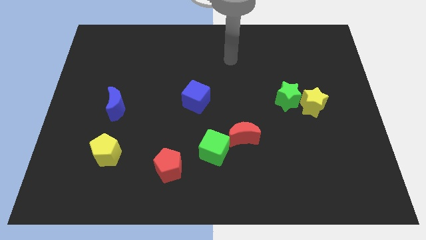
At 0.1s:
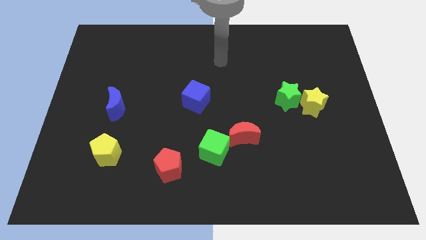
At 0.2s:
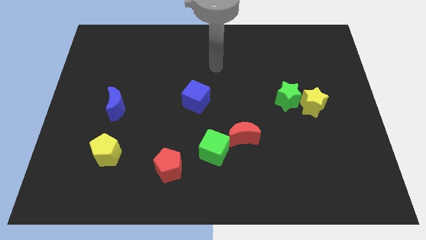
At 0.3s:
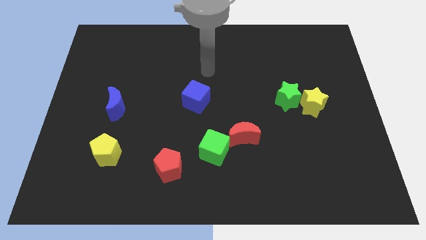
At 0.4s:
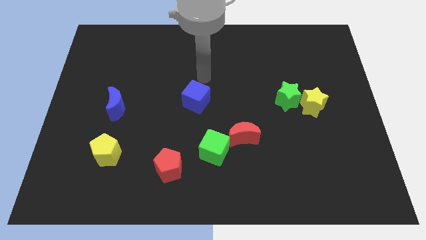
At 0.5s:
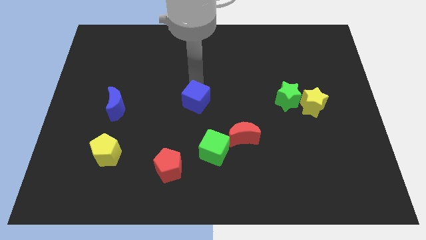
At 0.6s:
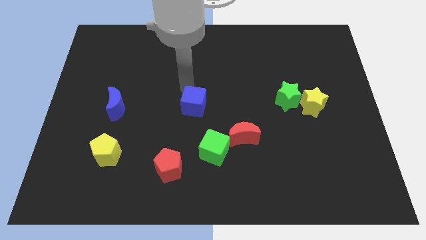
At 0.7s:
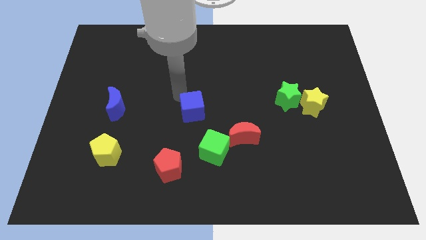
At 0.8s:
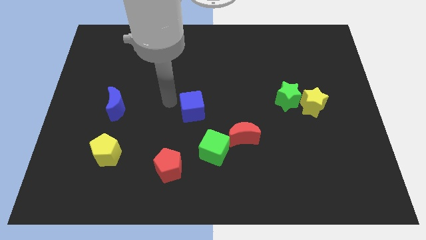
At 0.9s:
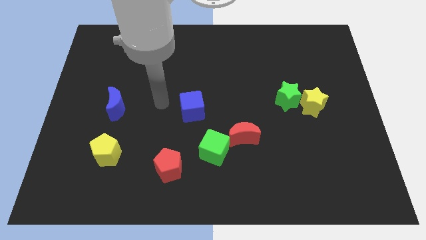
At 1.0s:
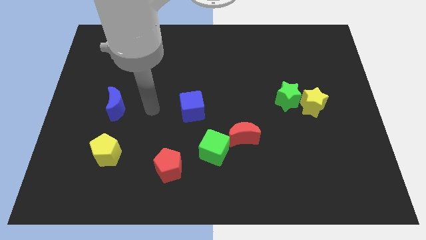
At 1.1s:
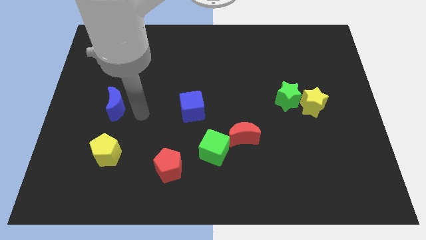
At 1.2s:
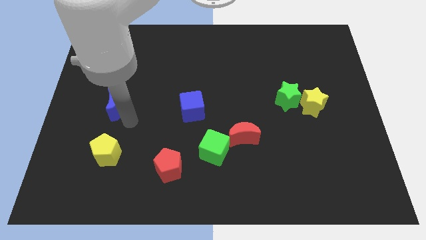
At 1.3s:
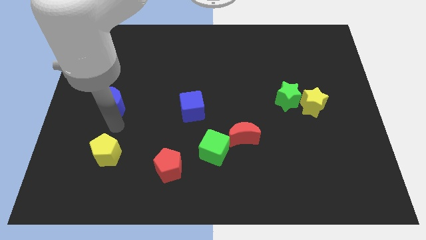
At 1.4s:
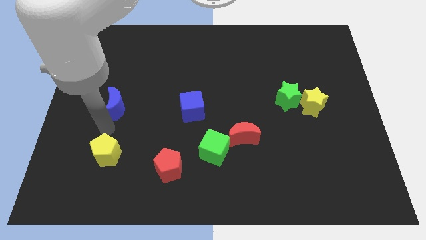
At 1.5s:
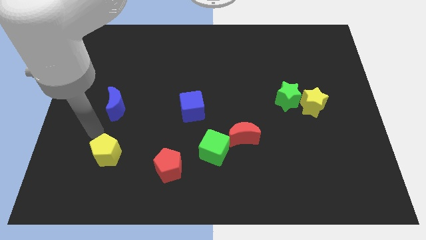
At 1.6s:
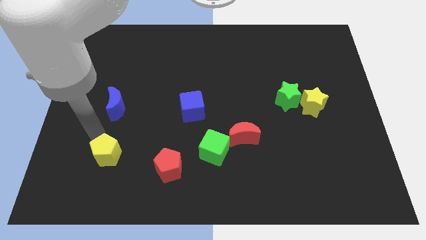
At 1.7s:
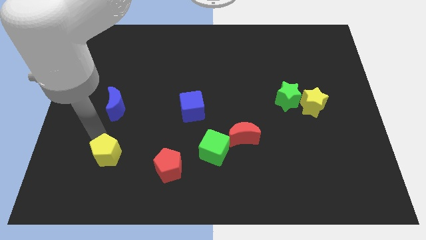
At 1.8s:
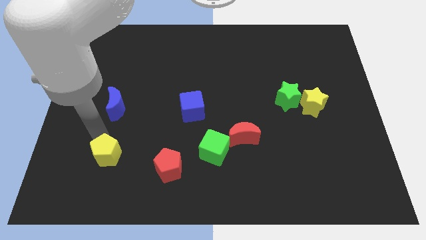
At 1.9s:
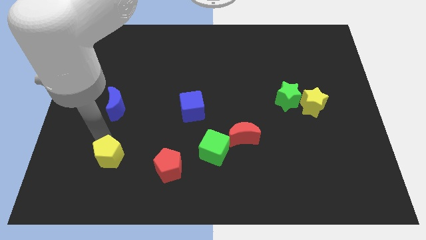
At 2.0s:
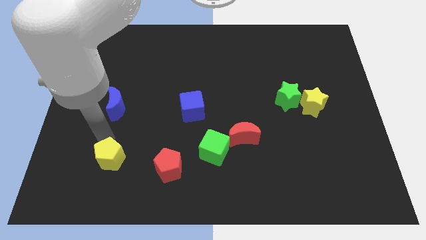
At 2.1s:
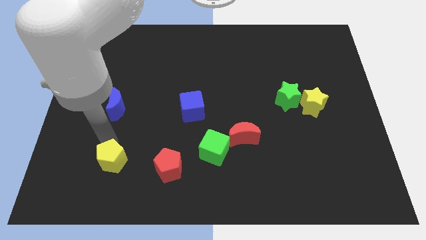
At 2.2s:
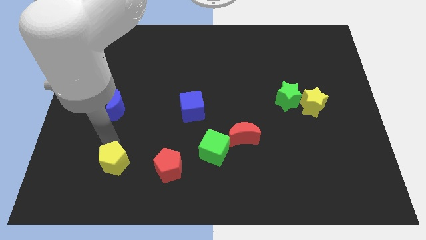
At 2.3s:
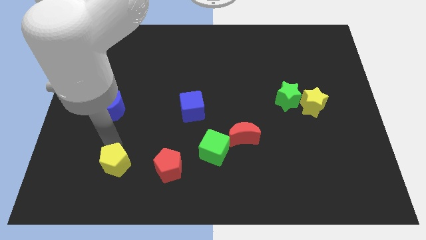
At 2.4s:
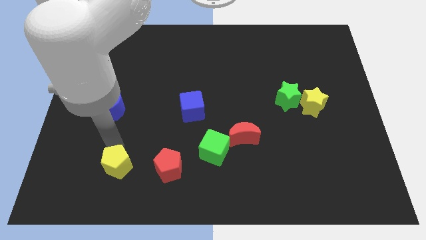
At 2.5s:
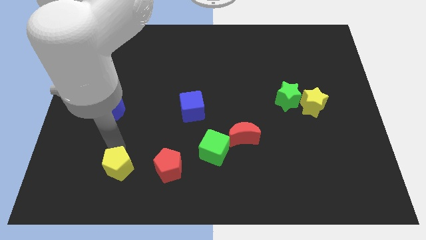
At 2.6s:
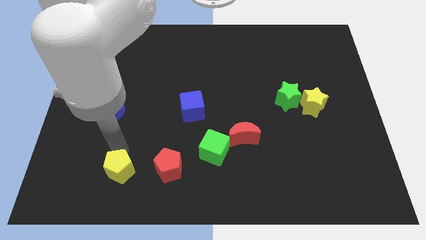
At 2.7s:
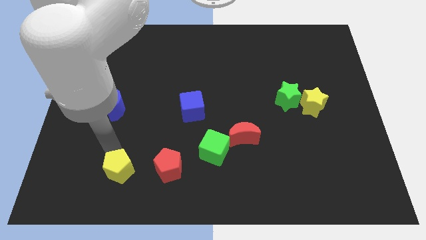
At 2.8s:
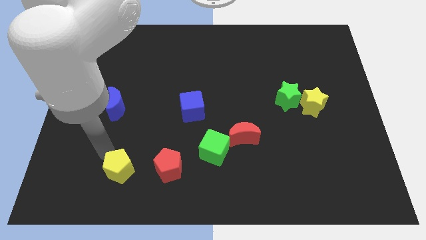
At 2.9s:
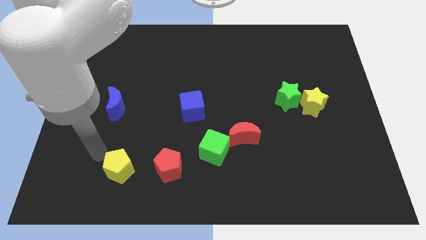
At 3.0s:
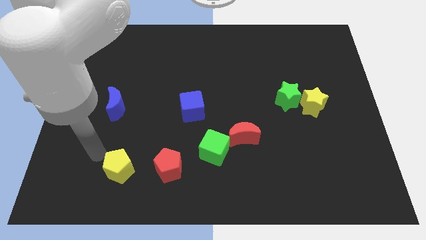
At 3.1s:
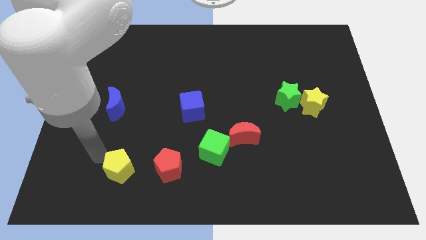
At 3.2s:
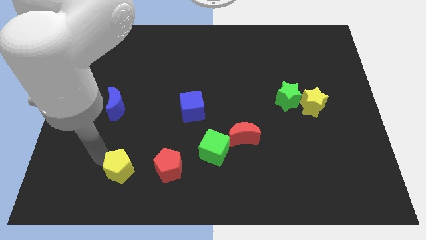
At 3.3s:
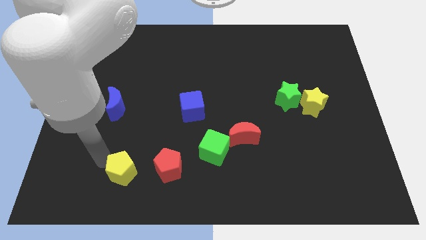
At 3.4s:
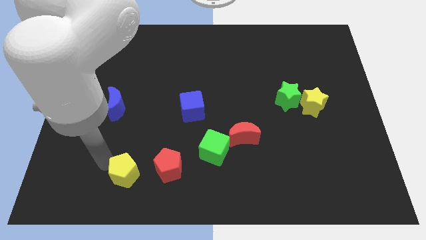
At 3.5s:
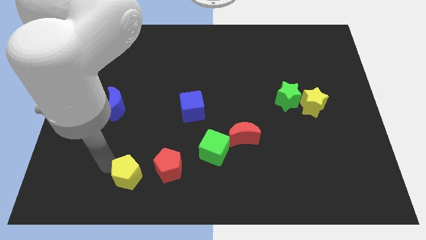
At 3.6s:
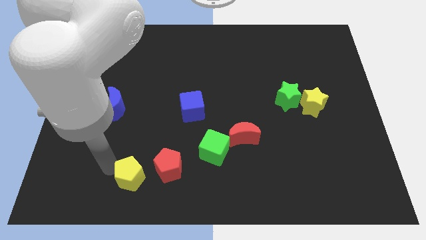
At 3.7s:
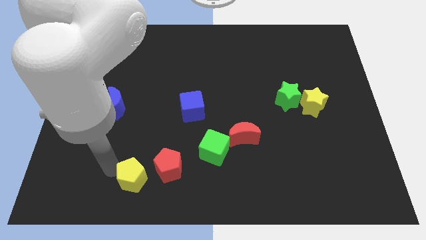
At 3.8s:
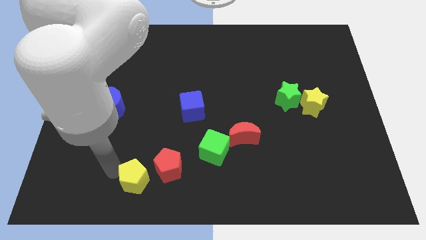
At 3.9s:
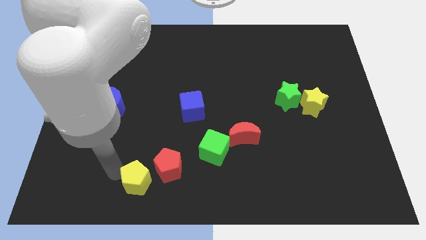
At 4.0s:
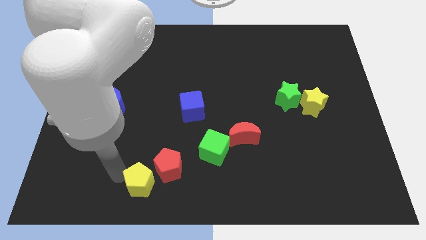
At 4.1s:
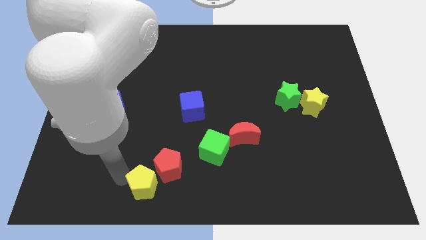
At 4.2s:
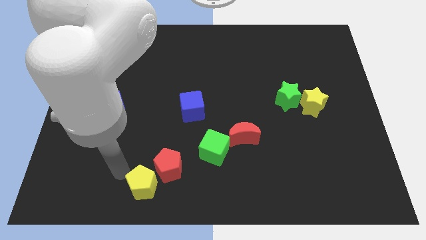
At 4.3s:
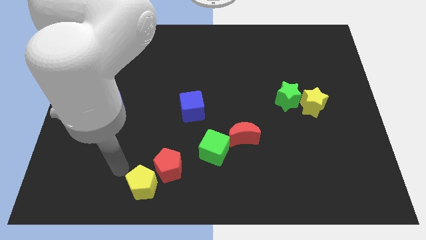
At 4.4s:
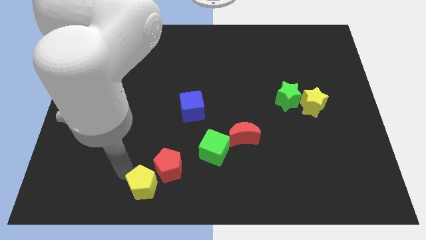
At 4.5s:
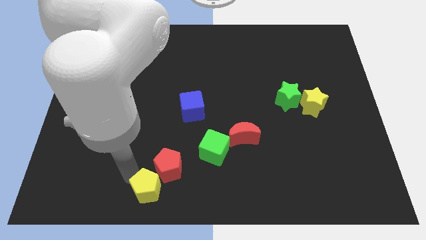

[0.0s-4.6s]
slide the yellow pentagon to the bottom

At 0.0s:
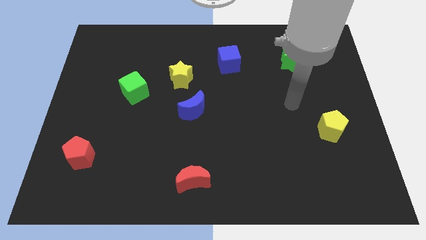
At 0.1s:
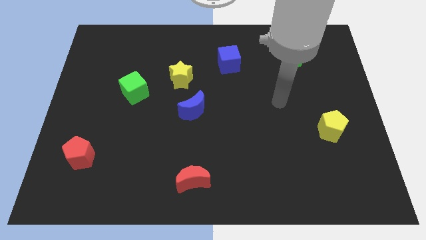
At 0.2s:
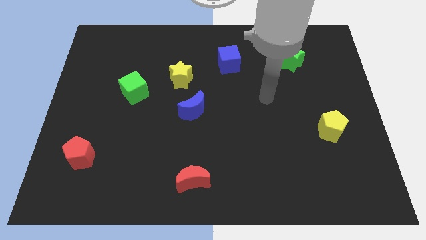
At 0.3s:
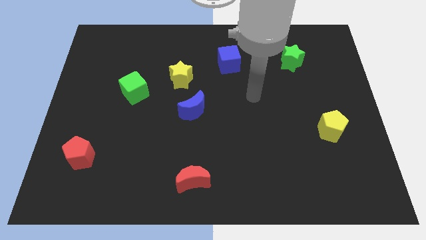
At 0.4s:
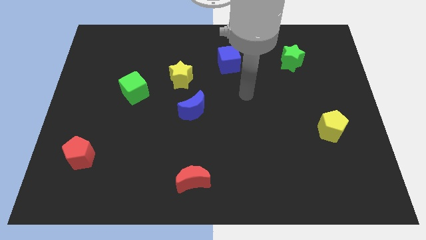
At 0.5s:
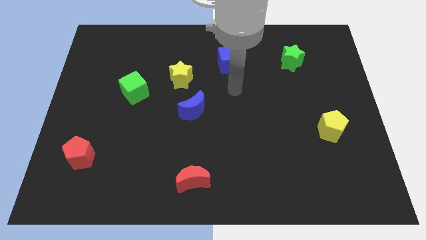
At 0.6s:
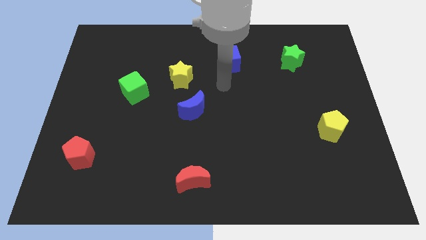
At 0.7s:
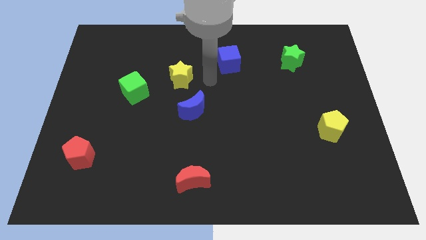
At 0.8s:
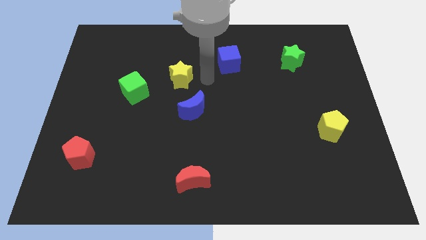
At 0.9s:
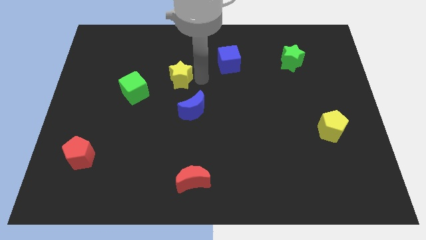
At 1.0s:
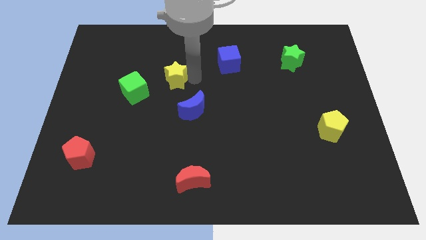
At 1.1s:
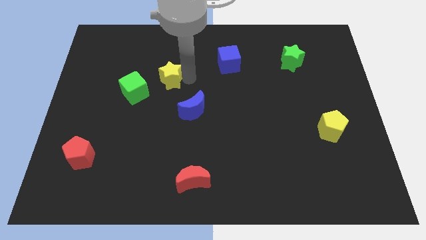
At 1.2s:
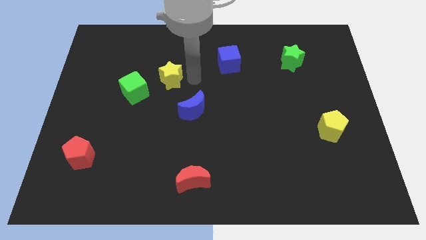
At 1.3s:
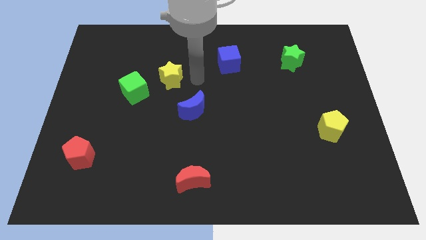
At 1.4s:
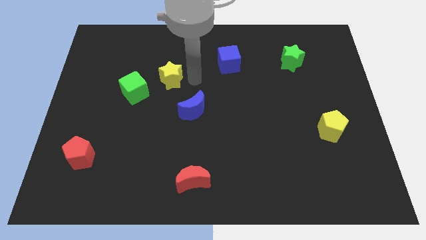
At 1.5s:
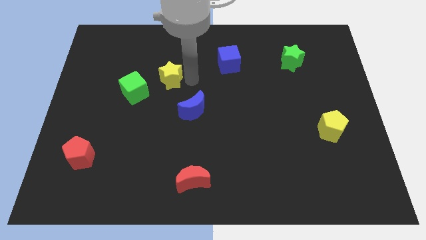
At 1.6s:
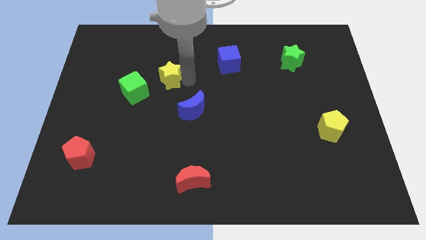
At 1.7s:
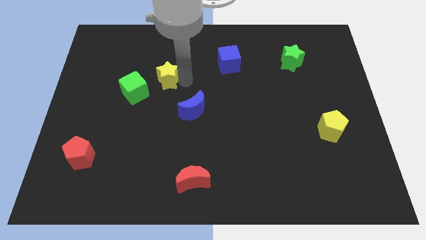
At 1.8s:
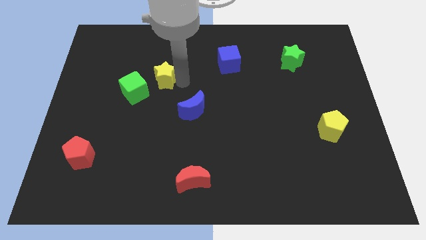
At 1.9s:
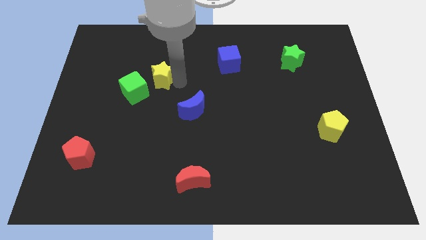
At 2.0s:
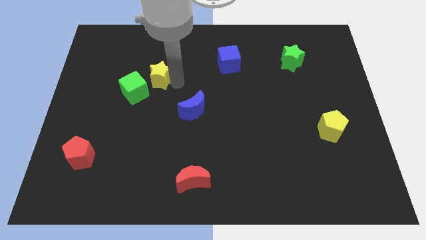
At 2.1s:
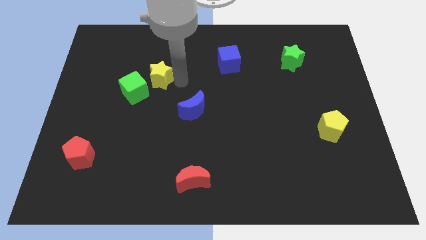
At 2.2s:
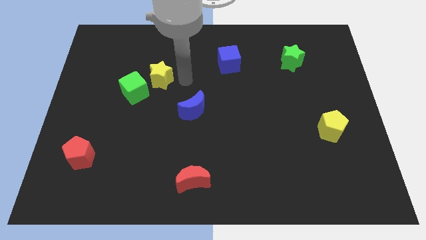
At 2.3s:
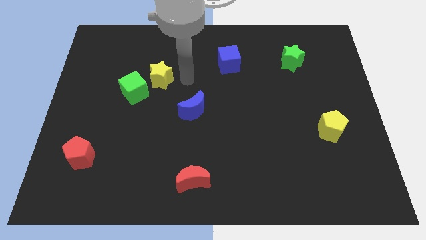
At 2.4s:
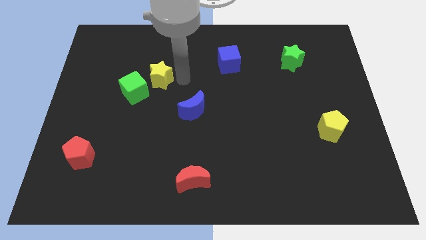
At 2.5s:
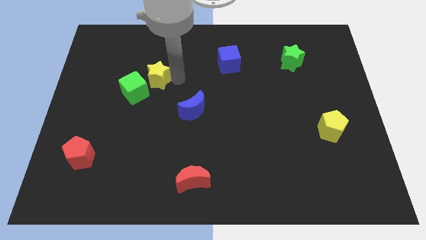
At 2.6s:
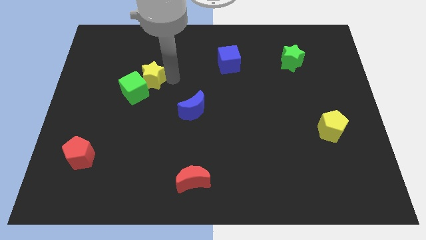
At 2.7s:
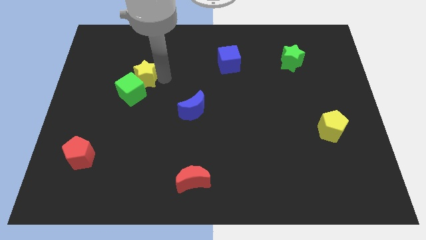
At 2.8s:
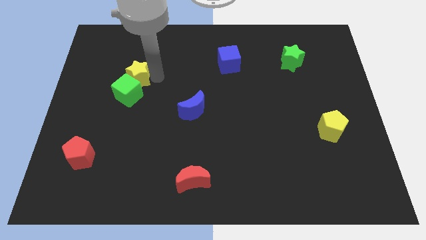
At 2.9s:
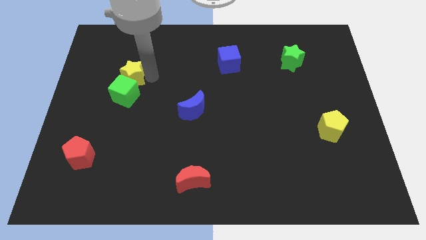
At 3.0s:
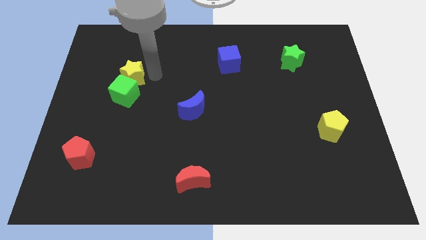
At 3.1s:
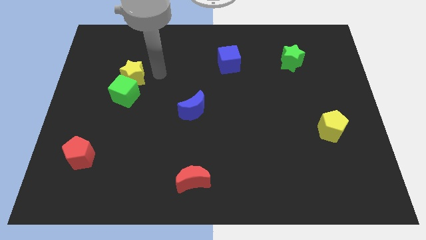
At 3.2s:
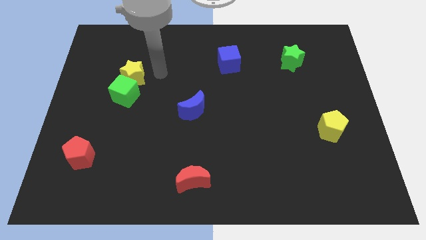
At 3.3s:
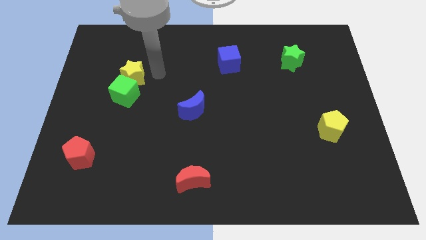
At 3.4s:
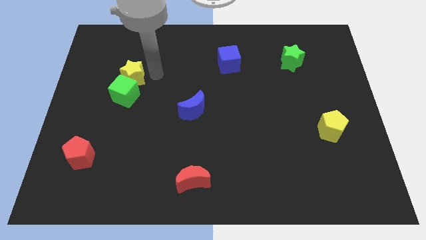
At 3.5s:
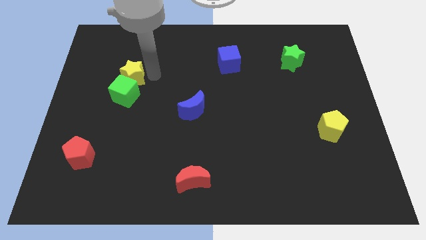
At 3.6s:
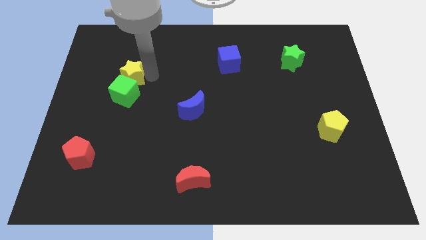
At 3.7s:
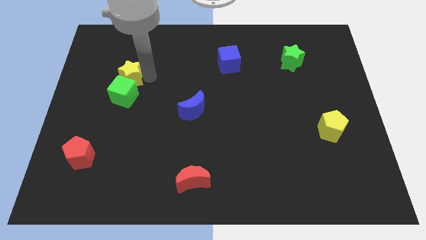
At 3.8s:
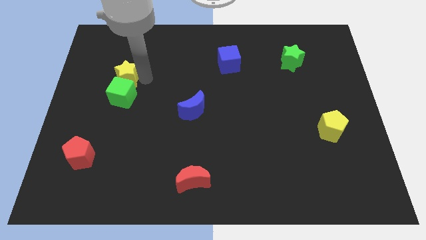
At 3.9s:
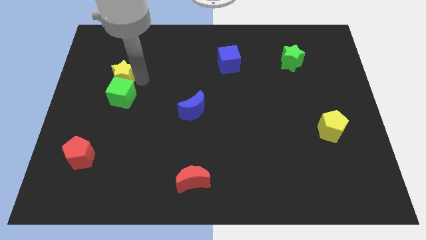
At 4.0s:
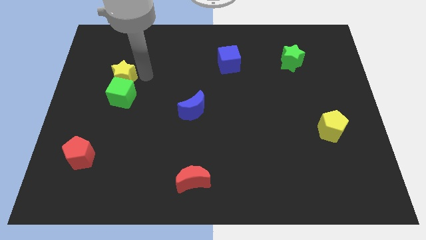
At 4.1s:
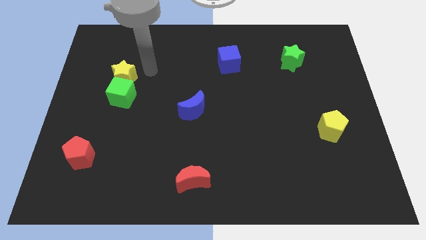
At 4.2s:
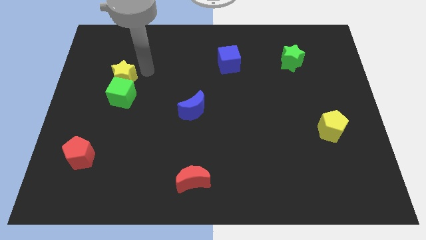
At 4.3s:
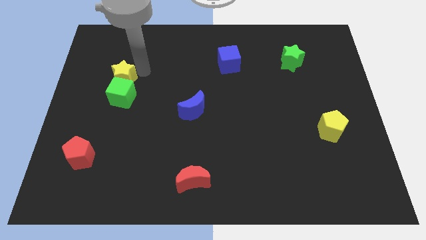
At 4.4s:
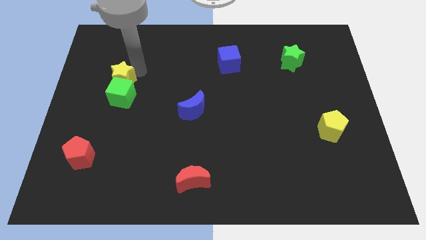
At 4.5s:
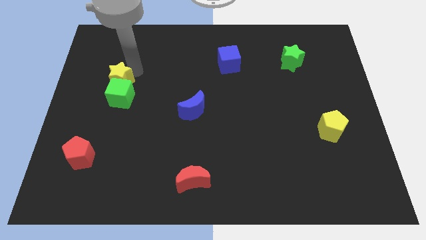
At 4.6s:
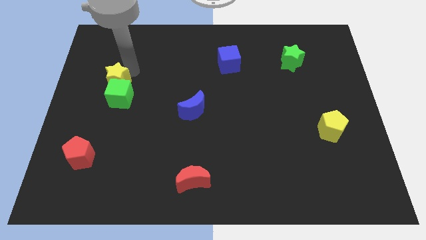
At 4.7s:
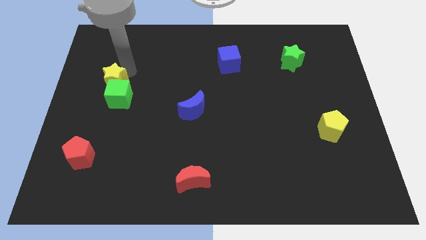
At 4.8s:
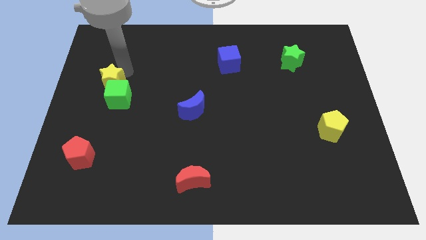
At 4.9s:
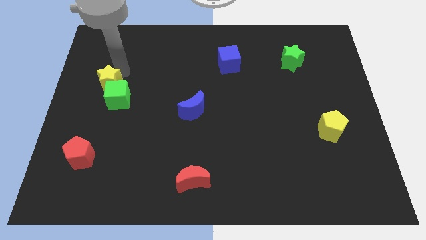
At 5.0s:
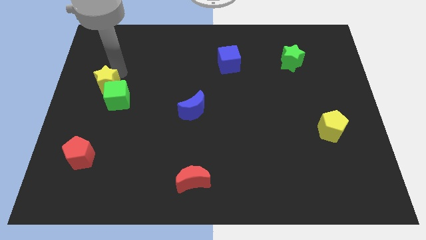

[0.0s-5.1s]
put the yellow star to the left side of the board
